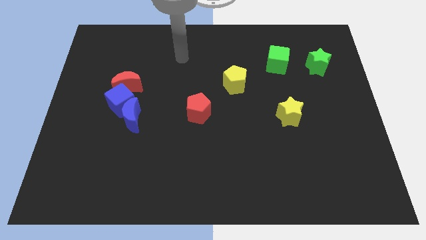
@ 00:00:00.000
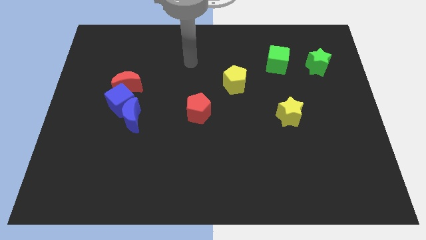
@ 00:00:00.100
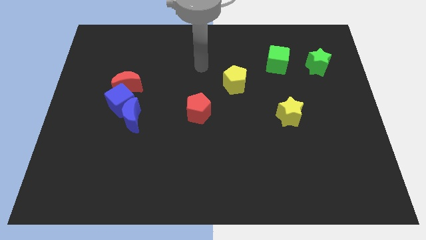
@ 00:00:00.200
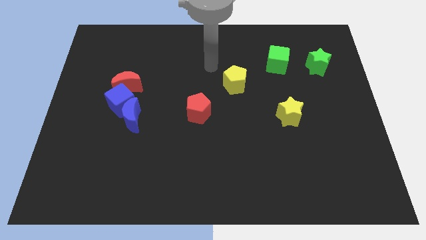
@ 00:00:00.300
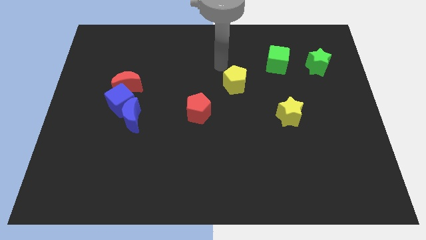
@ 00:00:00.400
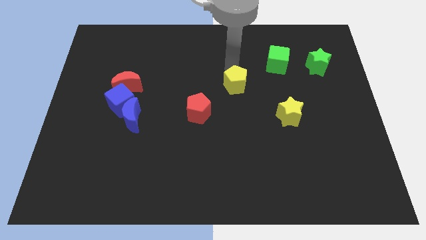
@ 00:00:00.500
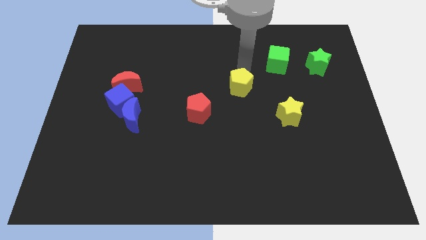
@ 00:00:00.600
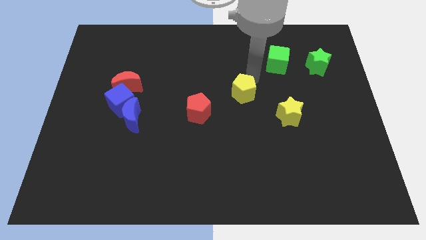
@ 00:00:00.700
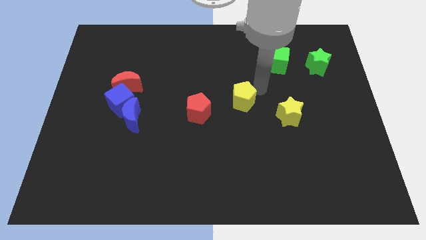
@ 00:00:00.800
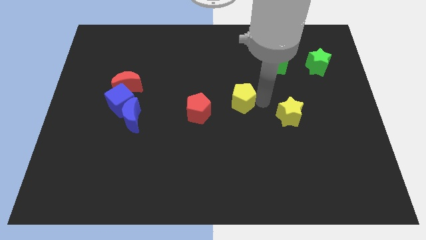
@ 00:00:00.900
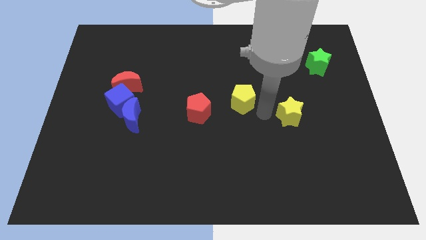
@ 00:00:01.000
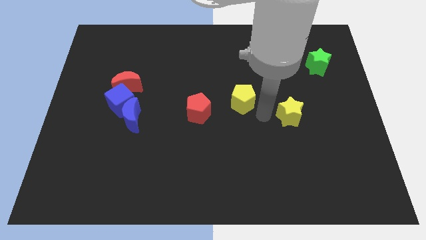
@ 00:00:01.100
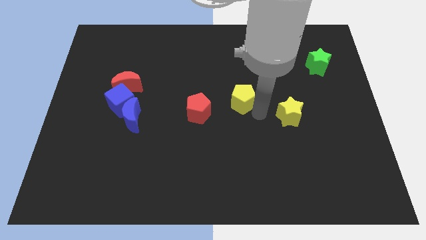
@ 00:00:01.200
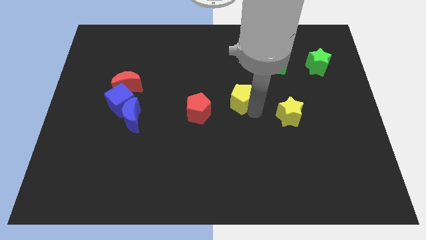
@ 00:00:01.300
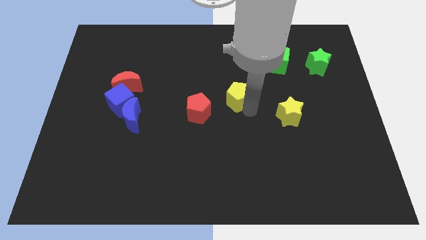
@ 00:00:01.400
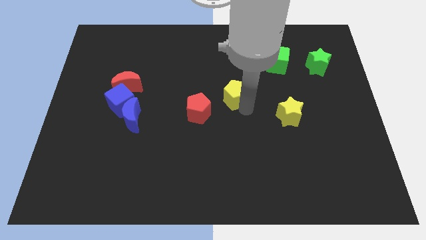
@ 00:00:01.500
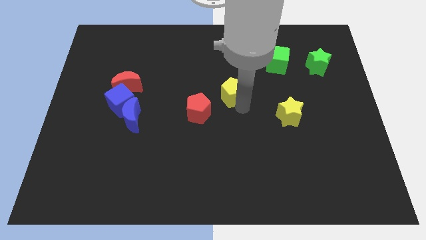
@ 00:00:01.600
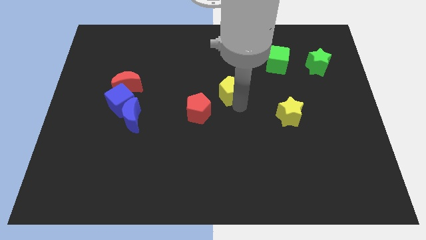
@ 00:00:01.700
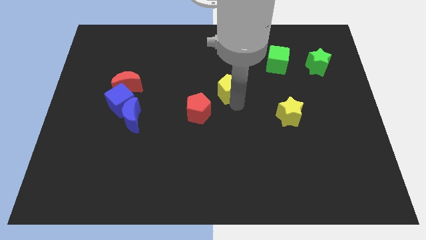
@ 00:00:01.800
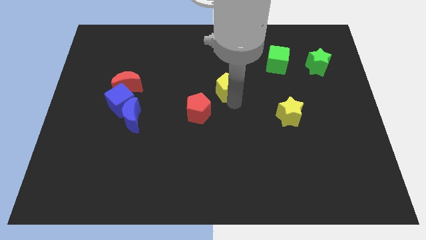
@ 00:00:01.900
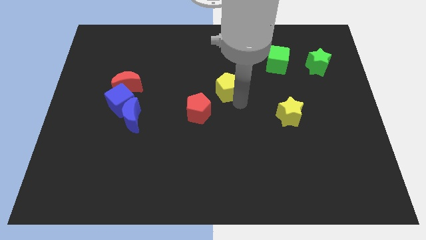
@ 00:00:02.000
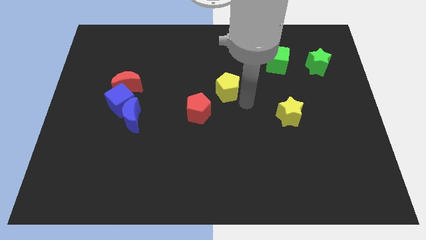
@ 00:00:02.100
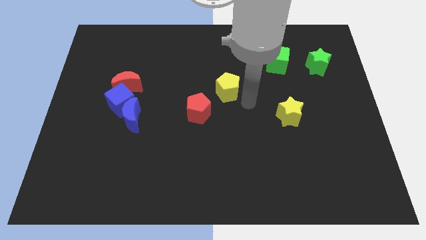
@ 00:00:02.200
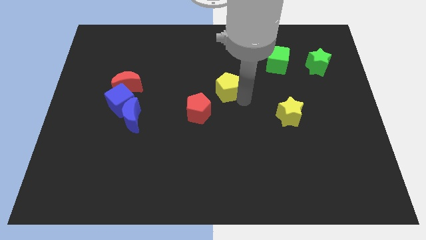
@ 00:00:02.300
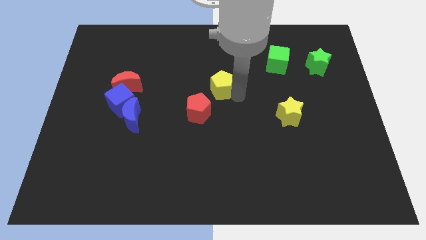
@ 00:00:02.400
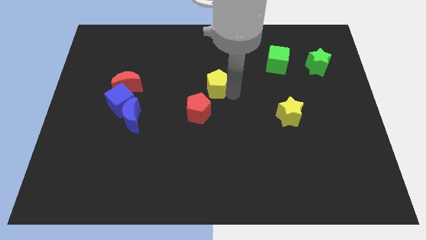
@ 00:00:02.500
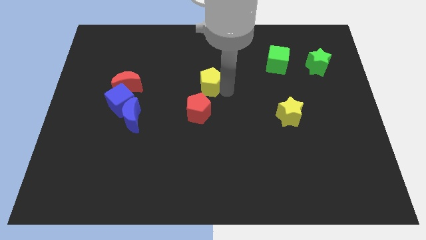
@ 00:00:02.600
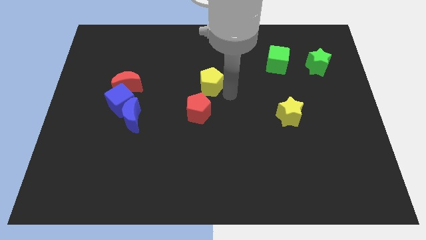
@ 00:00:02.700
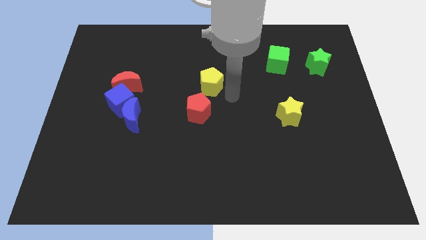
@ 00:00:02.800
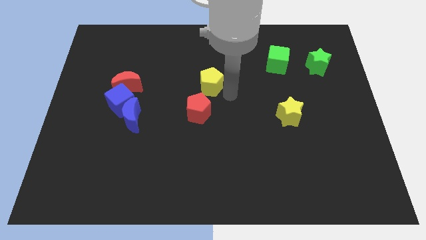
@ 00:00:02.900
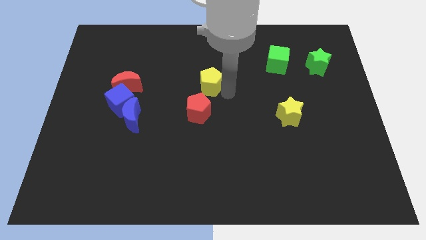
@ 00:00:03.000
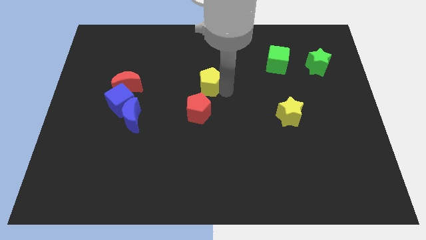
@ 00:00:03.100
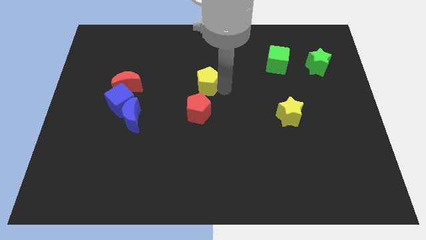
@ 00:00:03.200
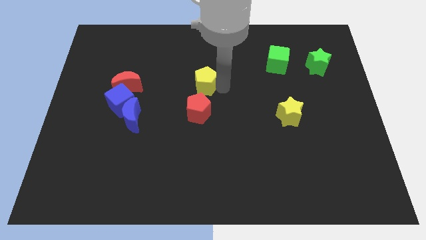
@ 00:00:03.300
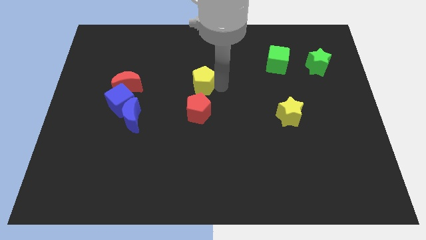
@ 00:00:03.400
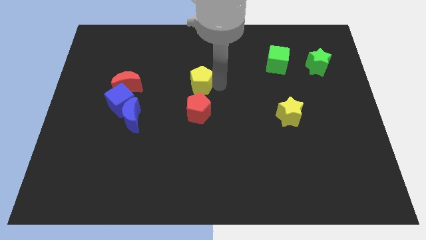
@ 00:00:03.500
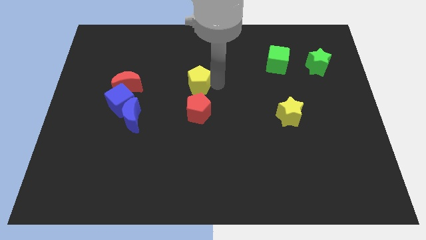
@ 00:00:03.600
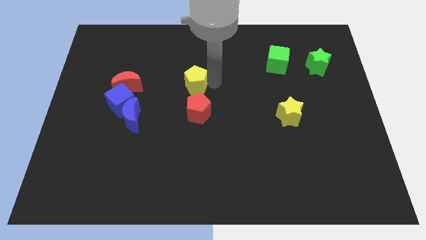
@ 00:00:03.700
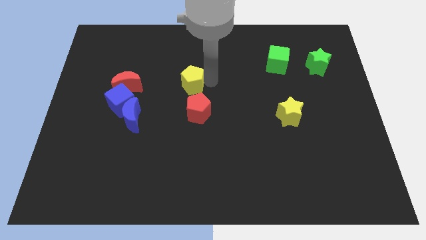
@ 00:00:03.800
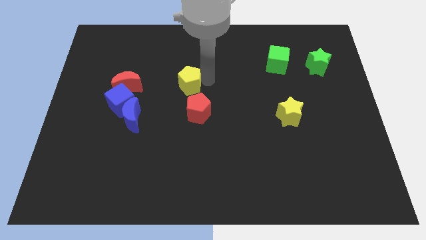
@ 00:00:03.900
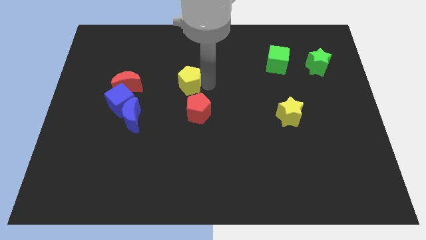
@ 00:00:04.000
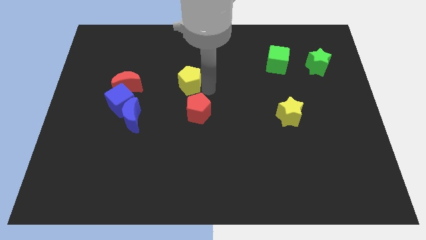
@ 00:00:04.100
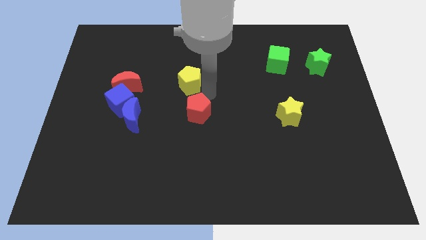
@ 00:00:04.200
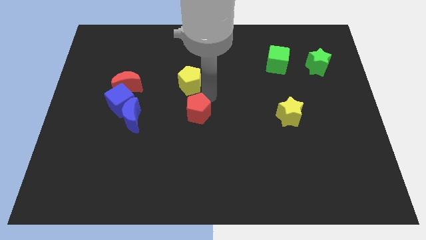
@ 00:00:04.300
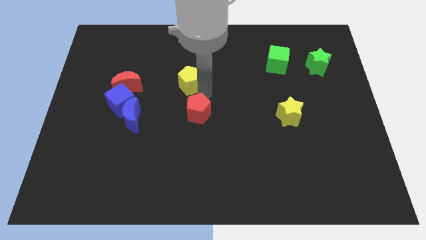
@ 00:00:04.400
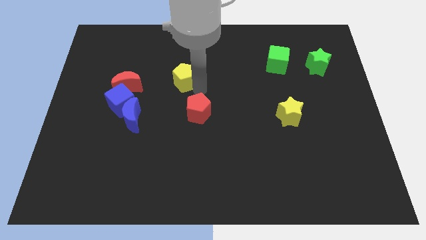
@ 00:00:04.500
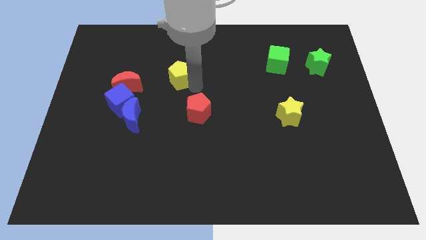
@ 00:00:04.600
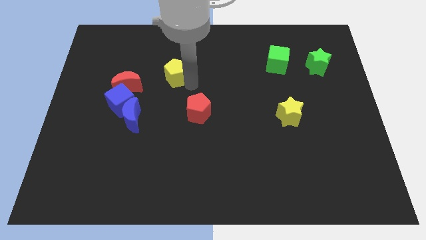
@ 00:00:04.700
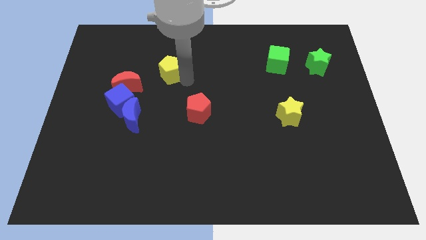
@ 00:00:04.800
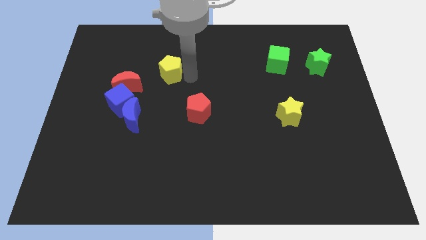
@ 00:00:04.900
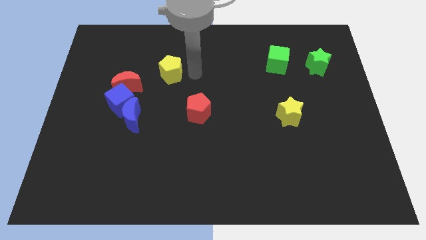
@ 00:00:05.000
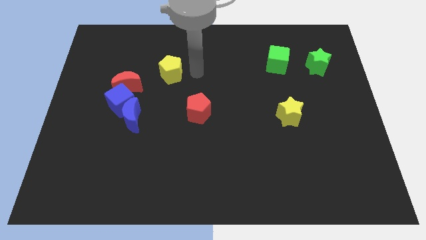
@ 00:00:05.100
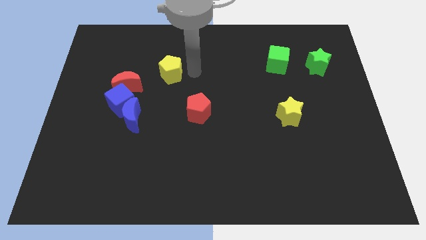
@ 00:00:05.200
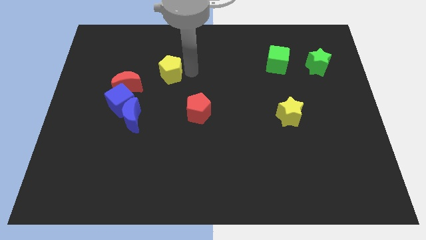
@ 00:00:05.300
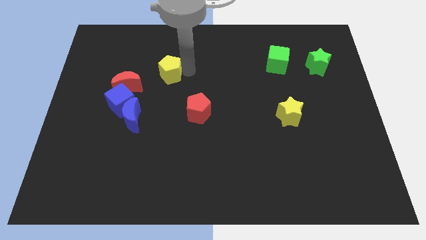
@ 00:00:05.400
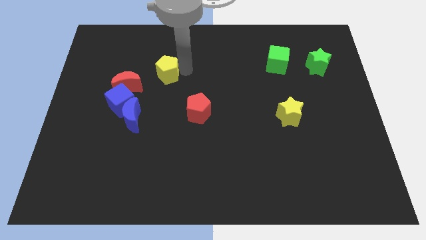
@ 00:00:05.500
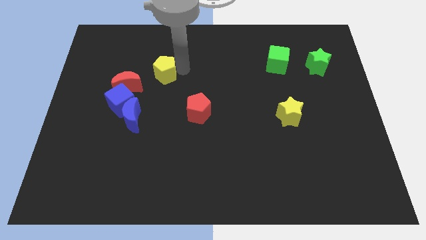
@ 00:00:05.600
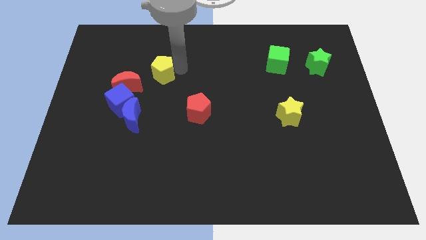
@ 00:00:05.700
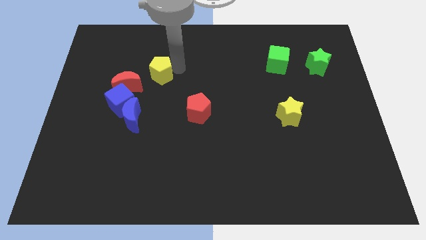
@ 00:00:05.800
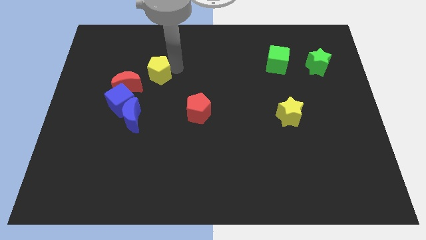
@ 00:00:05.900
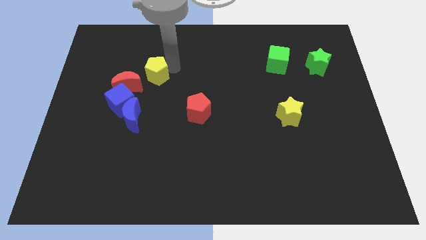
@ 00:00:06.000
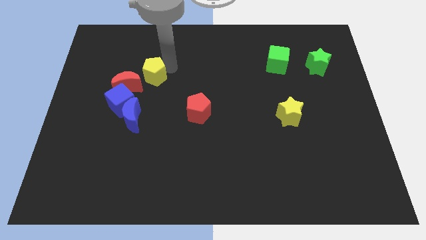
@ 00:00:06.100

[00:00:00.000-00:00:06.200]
slide the yellow pentagon to the left

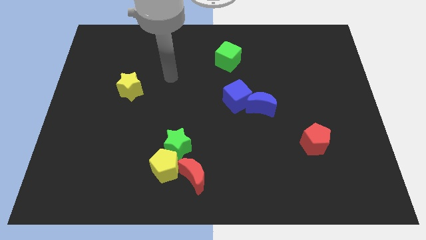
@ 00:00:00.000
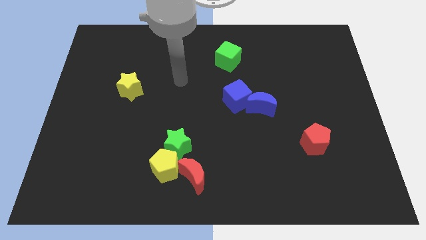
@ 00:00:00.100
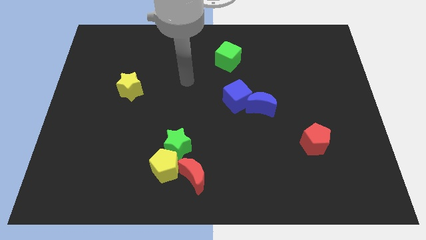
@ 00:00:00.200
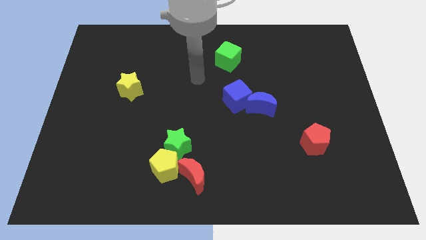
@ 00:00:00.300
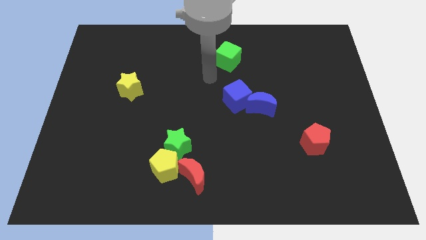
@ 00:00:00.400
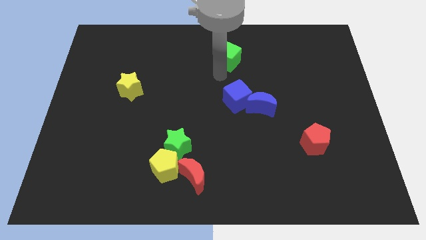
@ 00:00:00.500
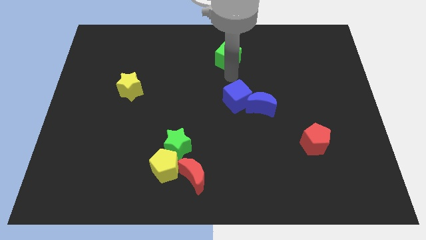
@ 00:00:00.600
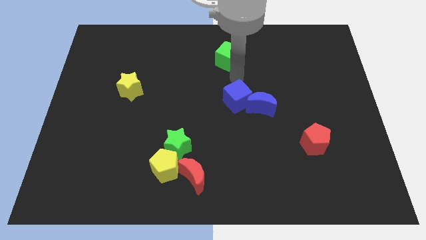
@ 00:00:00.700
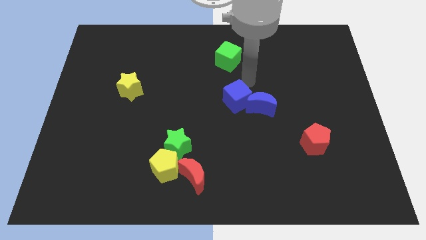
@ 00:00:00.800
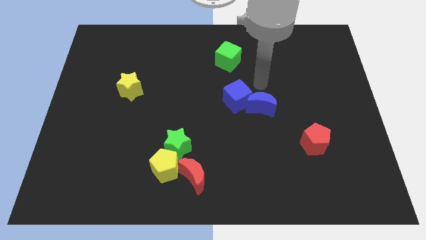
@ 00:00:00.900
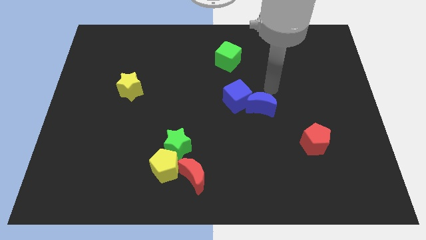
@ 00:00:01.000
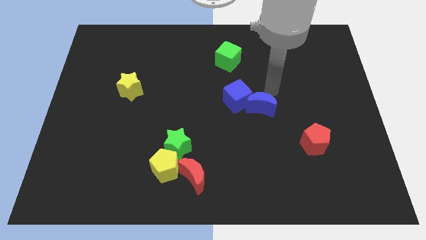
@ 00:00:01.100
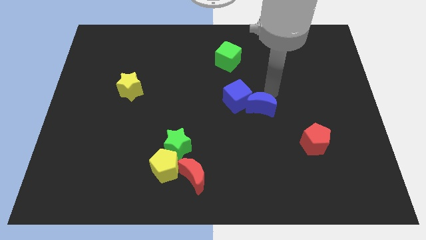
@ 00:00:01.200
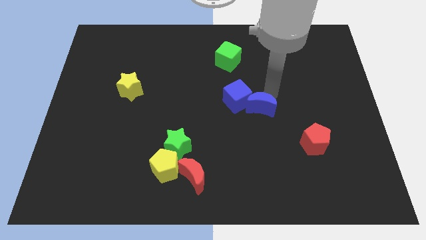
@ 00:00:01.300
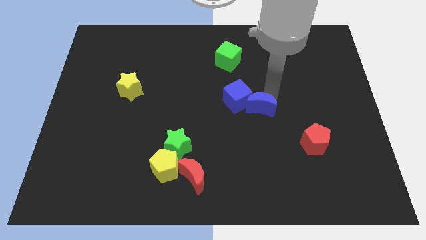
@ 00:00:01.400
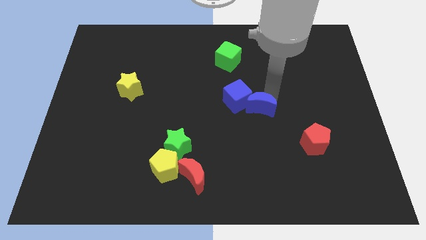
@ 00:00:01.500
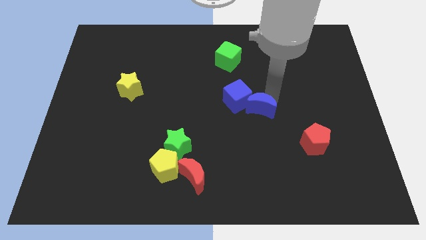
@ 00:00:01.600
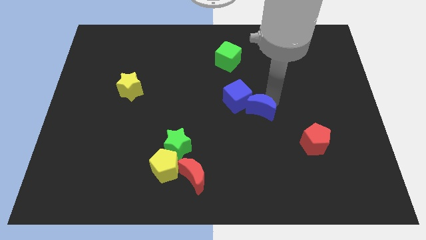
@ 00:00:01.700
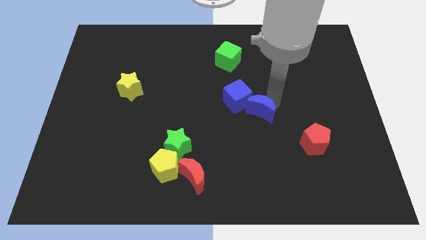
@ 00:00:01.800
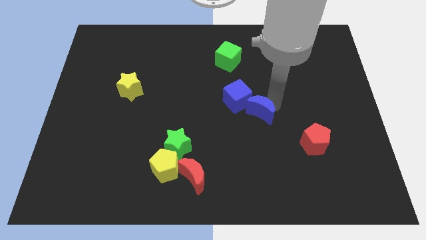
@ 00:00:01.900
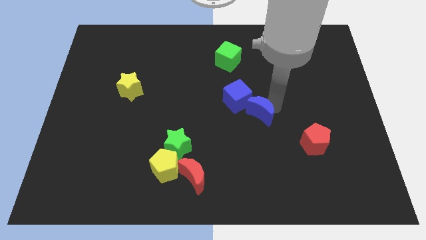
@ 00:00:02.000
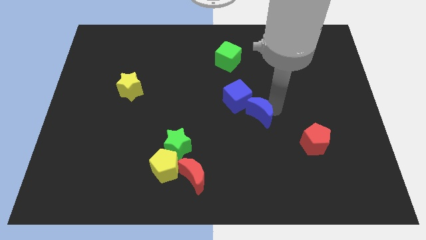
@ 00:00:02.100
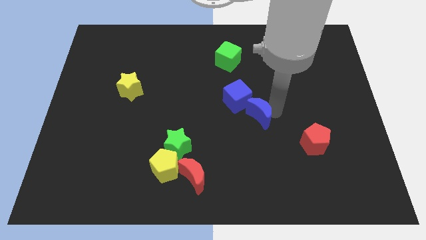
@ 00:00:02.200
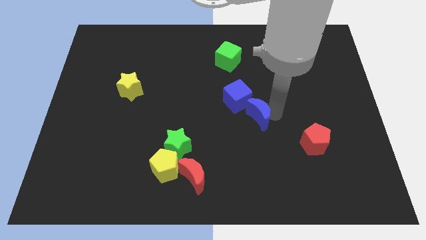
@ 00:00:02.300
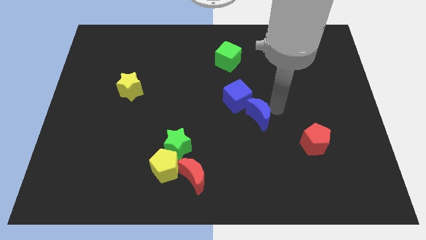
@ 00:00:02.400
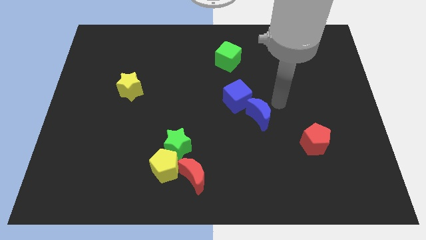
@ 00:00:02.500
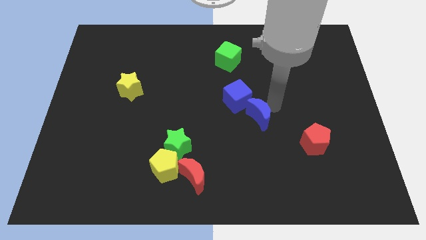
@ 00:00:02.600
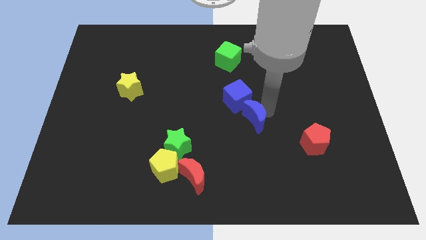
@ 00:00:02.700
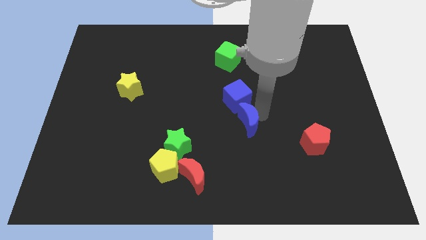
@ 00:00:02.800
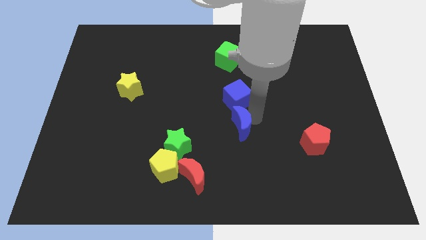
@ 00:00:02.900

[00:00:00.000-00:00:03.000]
slightly move the blue moon down and then left
